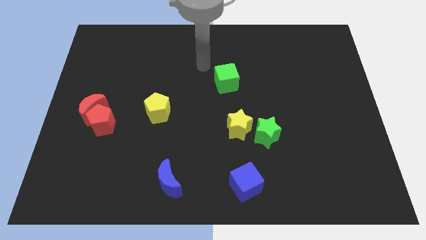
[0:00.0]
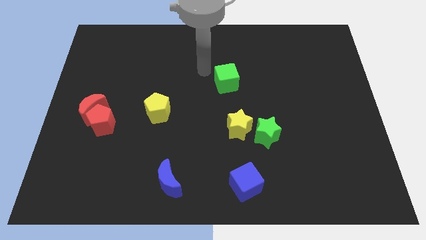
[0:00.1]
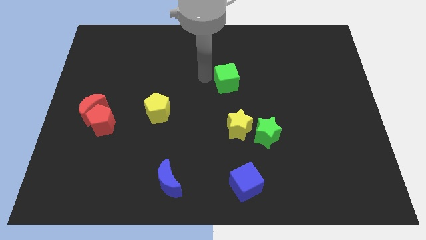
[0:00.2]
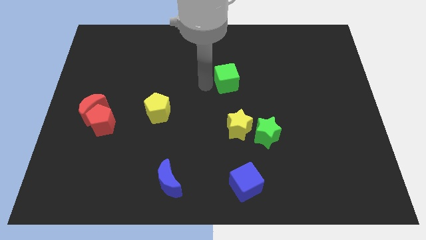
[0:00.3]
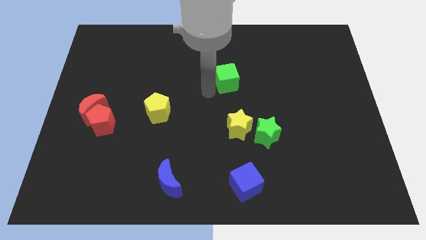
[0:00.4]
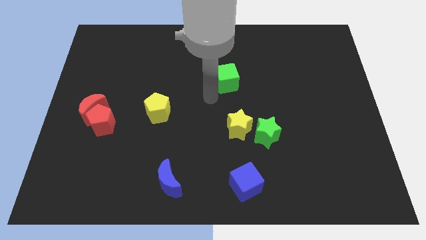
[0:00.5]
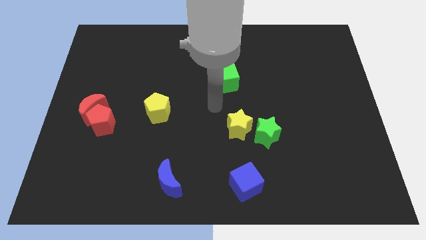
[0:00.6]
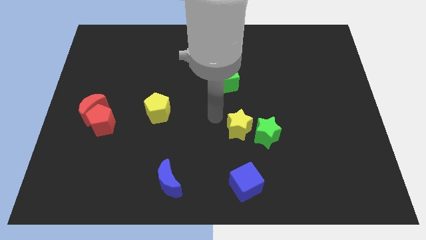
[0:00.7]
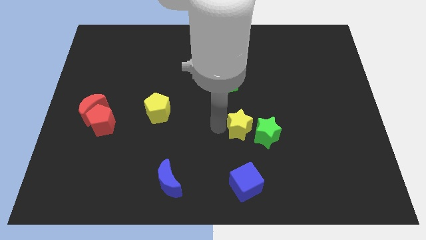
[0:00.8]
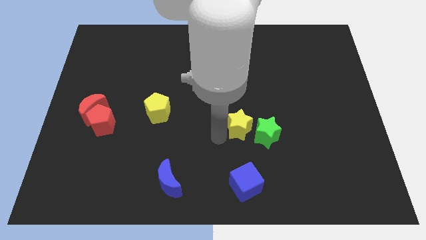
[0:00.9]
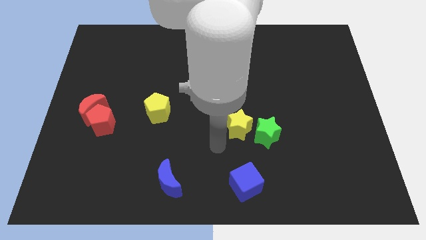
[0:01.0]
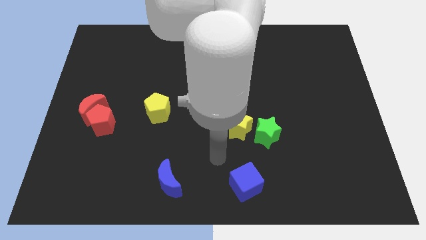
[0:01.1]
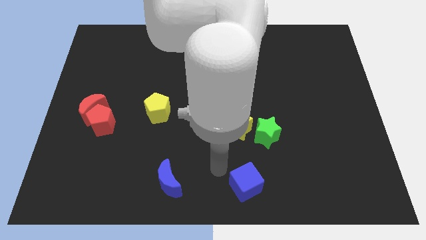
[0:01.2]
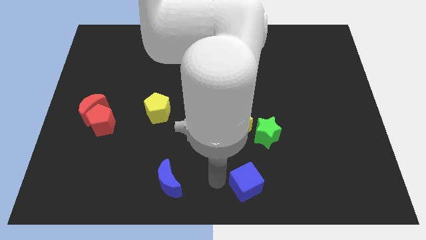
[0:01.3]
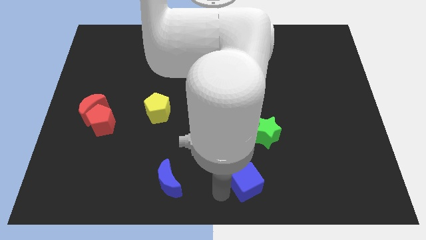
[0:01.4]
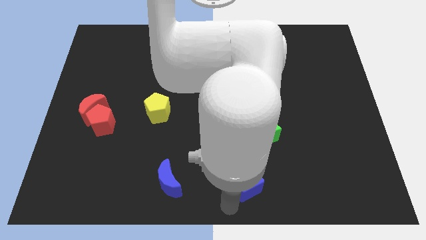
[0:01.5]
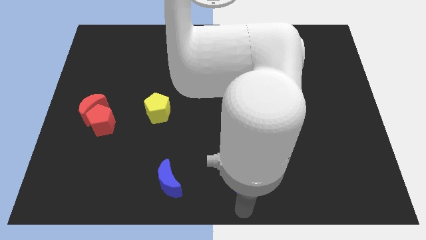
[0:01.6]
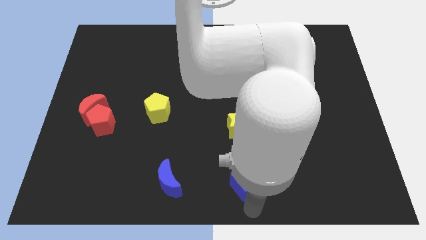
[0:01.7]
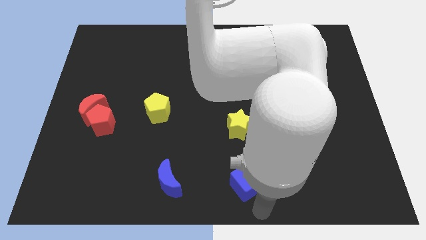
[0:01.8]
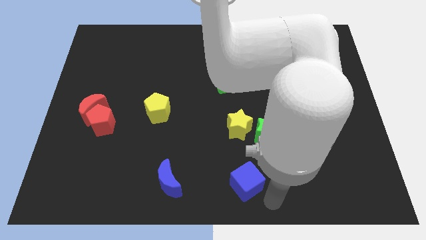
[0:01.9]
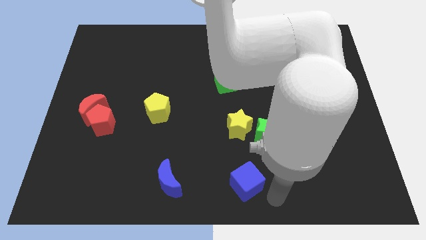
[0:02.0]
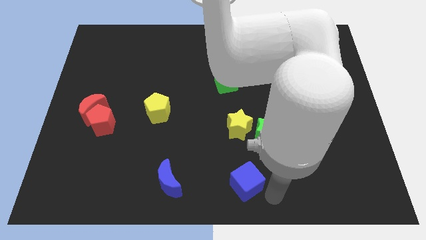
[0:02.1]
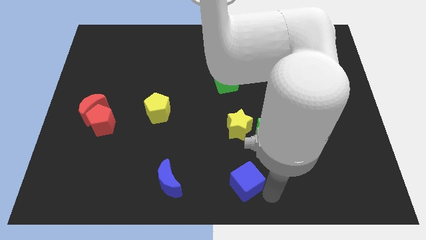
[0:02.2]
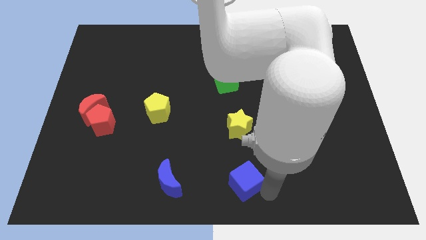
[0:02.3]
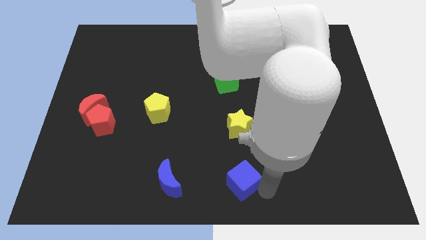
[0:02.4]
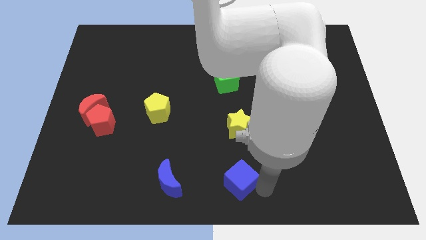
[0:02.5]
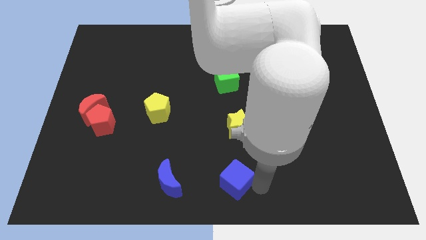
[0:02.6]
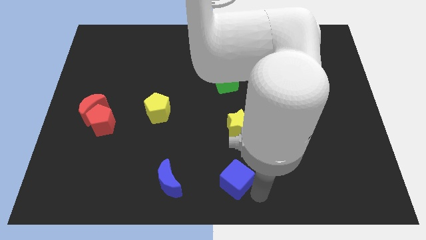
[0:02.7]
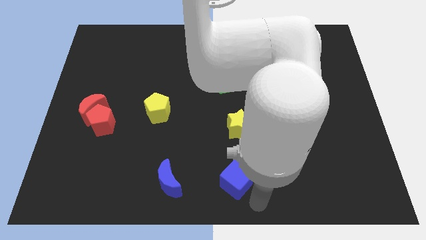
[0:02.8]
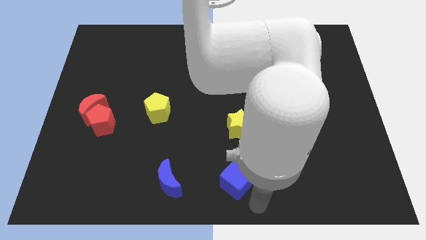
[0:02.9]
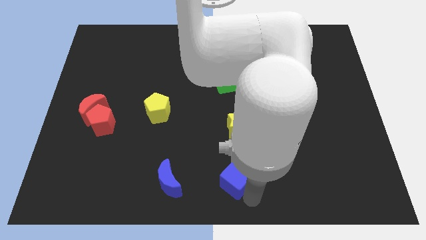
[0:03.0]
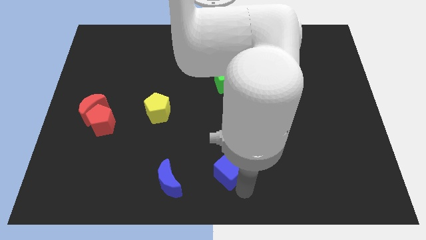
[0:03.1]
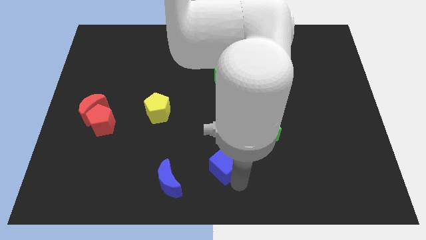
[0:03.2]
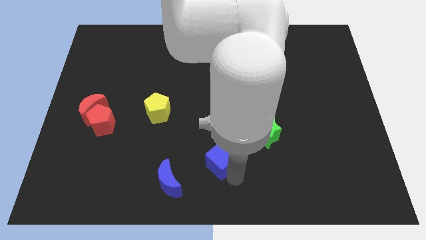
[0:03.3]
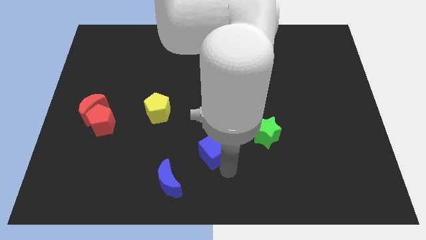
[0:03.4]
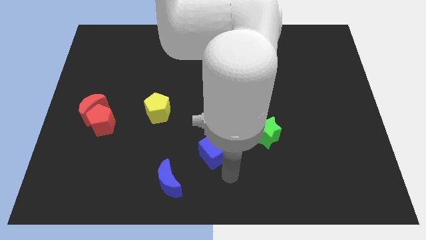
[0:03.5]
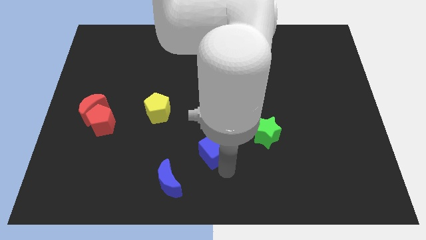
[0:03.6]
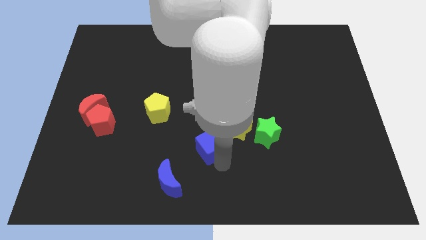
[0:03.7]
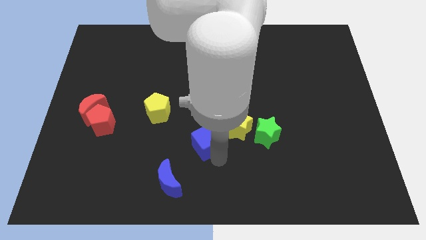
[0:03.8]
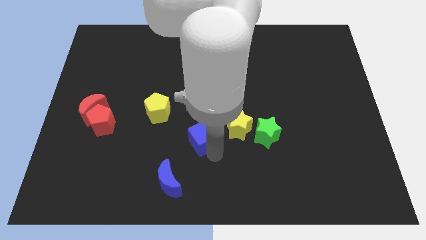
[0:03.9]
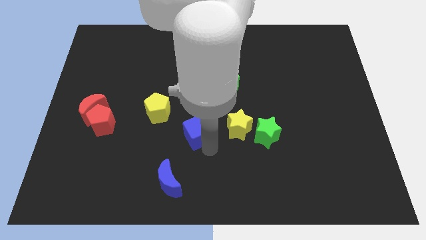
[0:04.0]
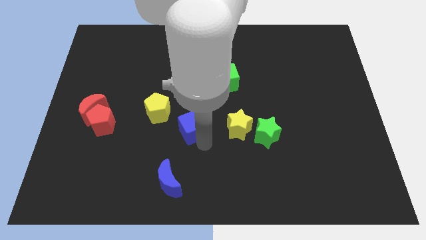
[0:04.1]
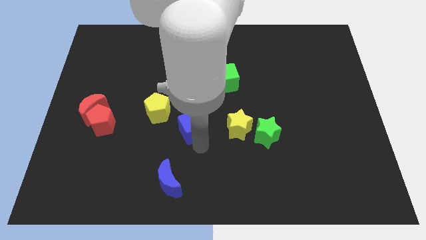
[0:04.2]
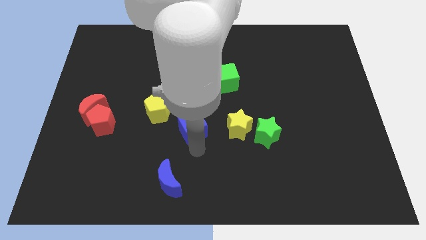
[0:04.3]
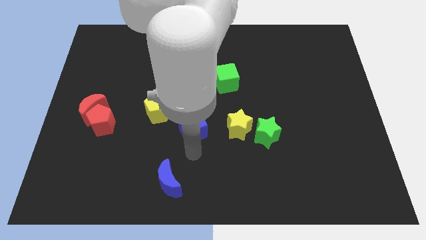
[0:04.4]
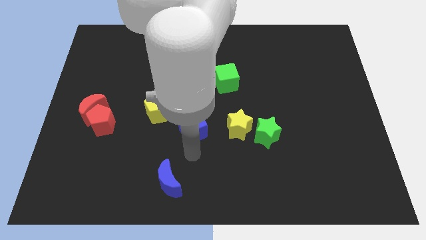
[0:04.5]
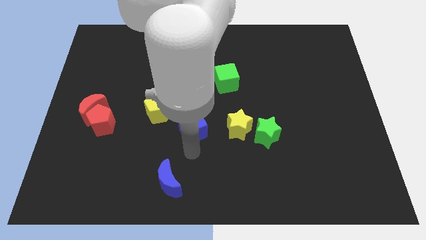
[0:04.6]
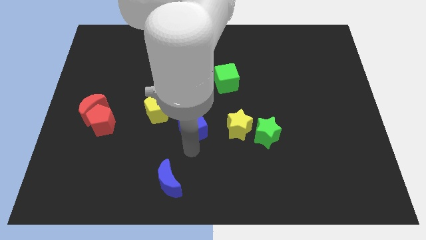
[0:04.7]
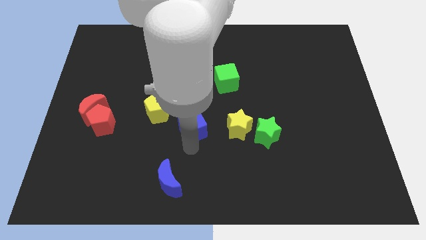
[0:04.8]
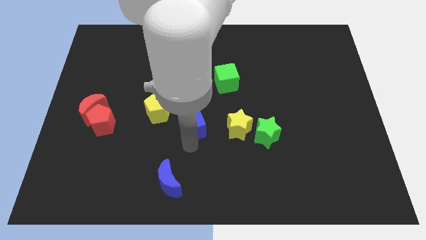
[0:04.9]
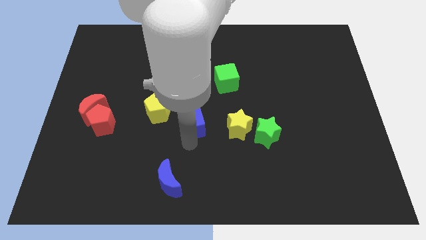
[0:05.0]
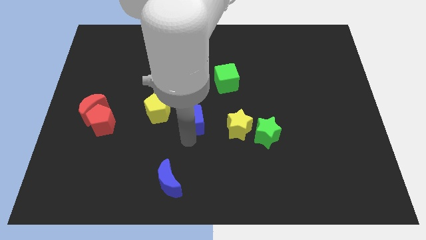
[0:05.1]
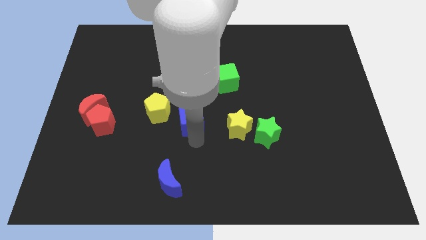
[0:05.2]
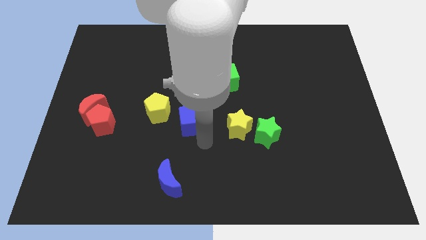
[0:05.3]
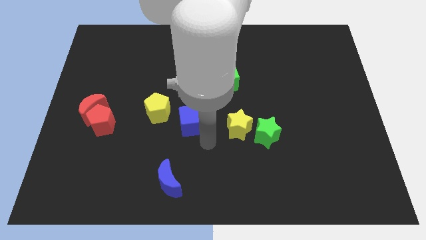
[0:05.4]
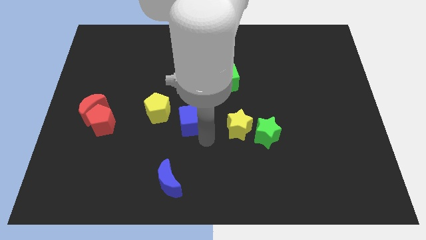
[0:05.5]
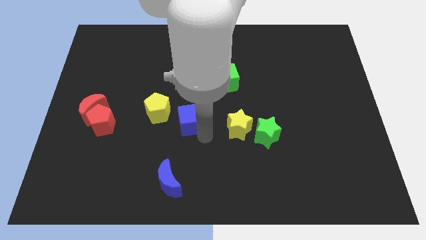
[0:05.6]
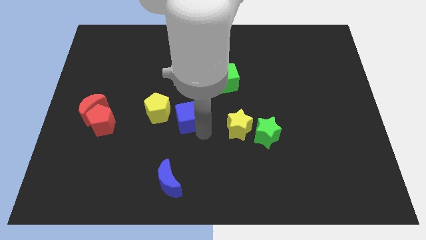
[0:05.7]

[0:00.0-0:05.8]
slide the blue cube upwards and to the left

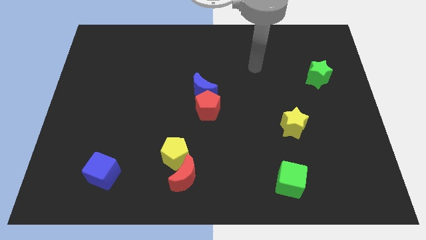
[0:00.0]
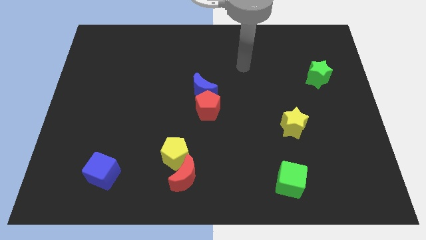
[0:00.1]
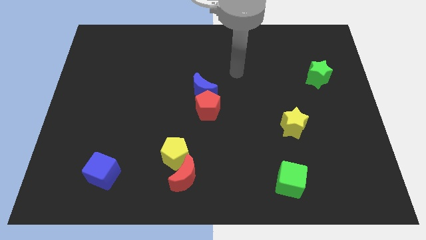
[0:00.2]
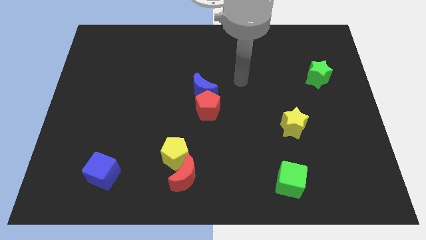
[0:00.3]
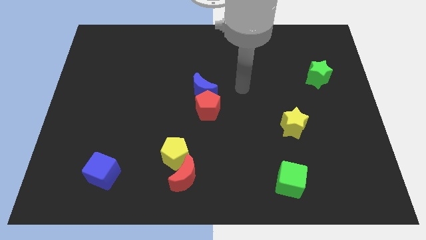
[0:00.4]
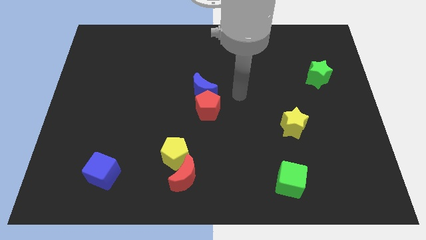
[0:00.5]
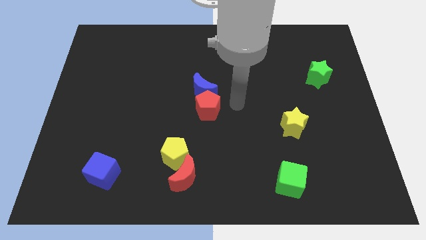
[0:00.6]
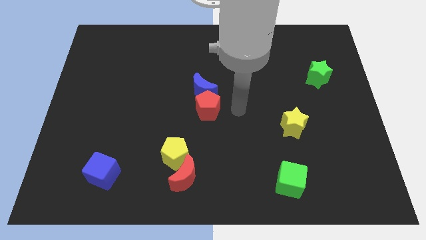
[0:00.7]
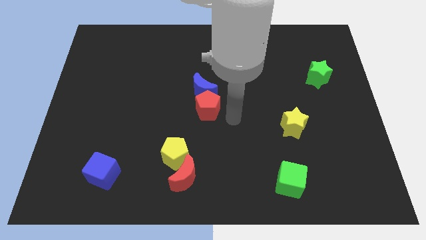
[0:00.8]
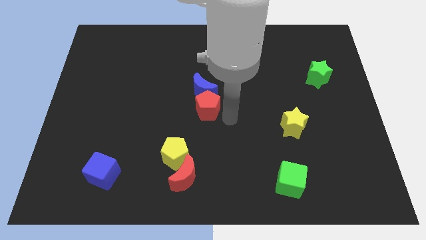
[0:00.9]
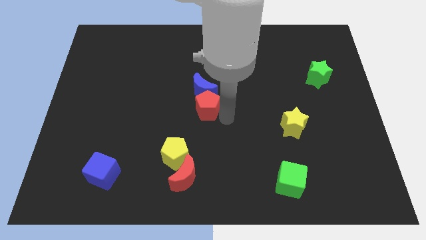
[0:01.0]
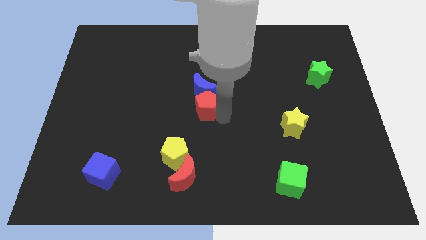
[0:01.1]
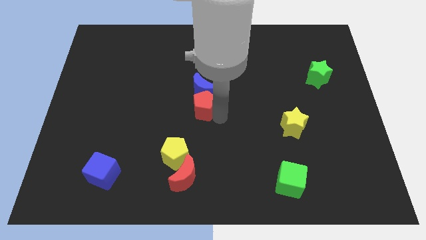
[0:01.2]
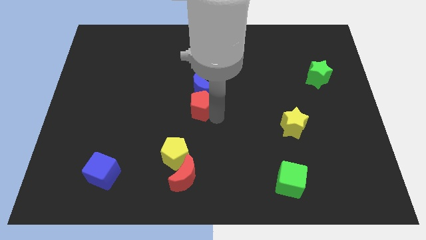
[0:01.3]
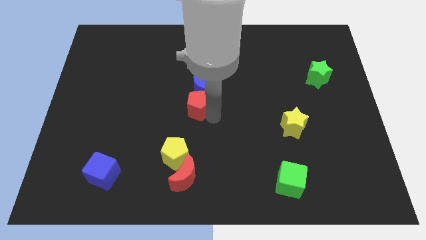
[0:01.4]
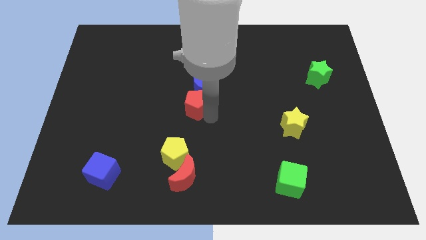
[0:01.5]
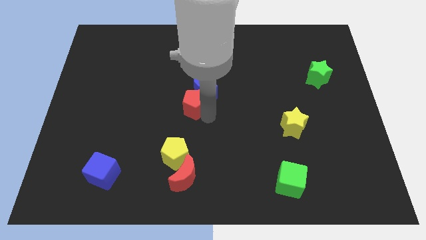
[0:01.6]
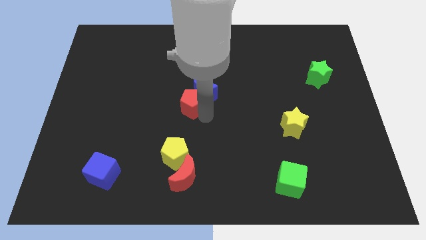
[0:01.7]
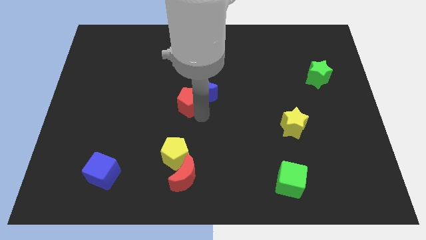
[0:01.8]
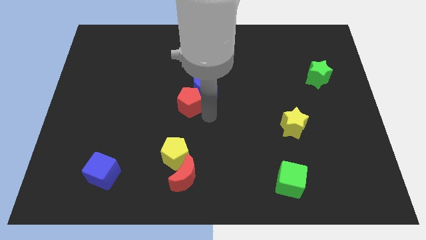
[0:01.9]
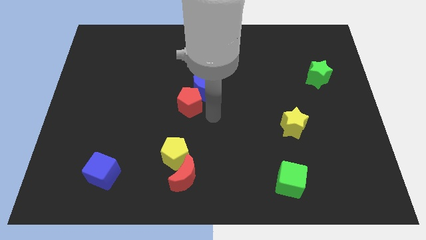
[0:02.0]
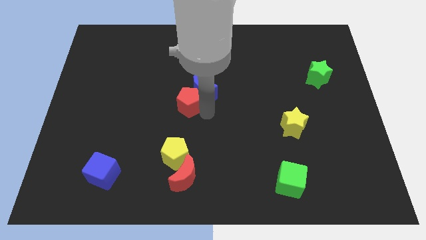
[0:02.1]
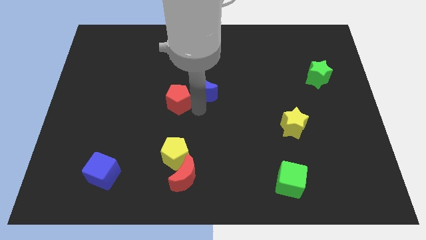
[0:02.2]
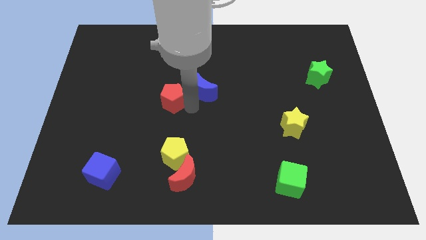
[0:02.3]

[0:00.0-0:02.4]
slightly move the red pentagon upwards and left
